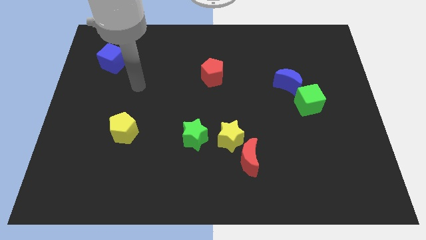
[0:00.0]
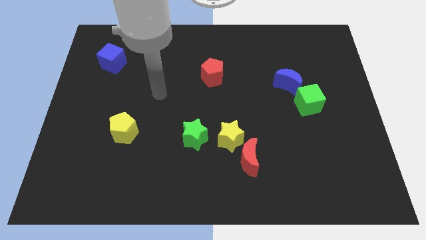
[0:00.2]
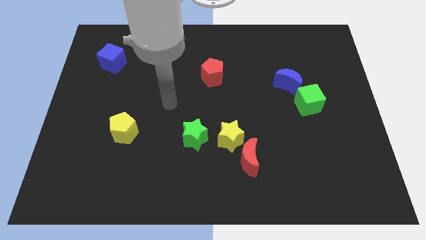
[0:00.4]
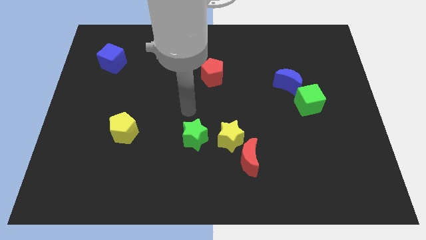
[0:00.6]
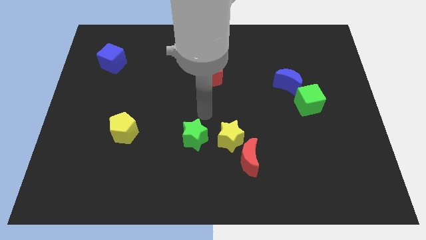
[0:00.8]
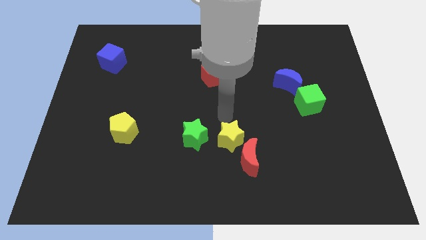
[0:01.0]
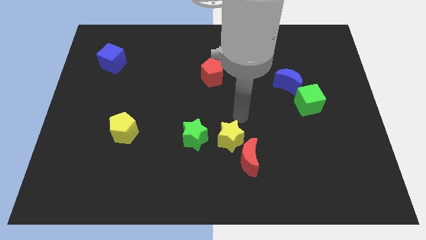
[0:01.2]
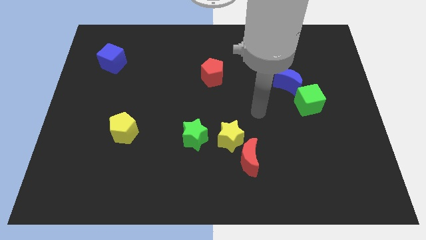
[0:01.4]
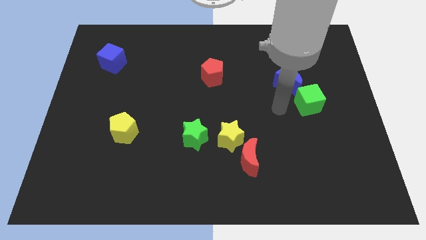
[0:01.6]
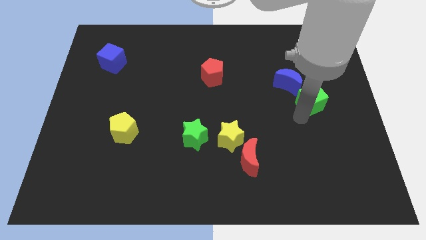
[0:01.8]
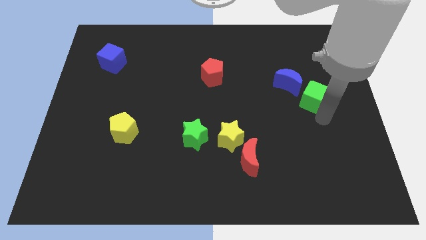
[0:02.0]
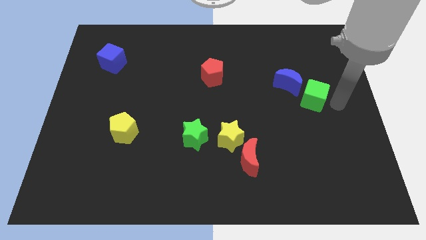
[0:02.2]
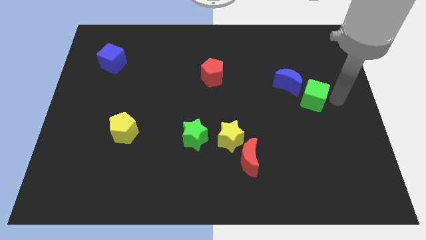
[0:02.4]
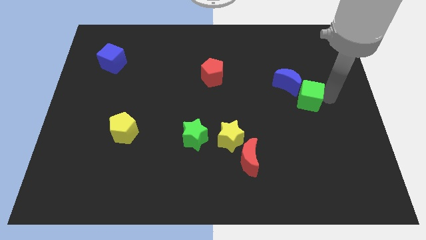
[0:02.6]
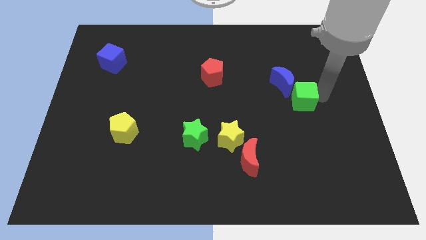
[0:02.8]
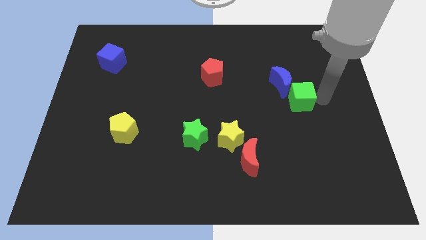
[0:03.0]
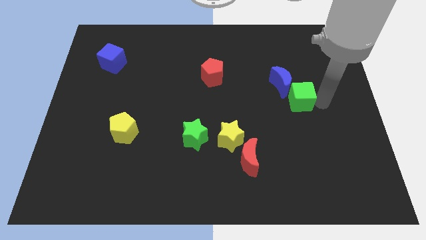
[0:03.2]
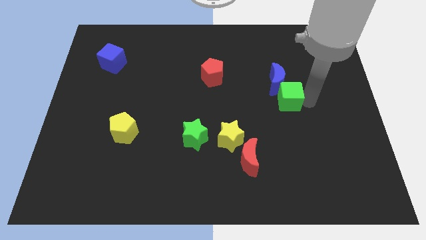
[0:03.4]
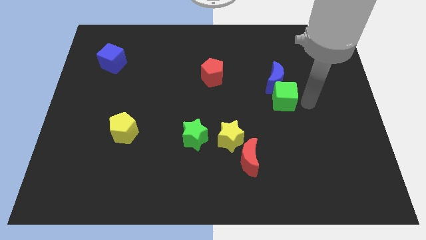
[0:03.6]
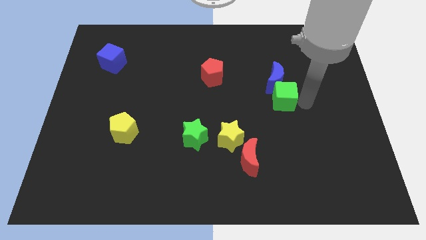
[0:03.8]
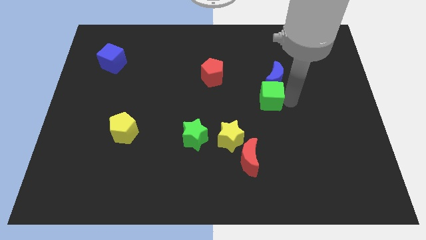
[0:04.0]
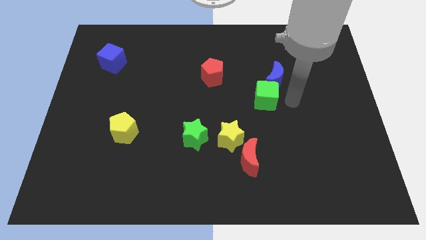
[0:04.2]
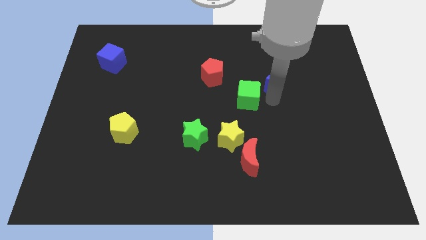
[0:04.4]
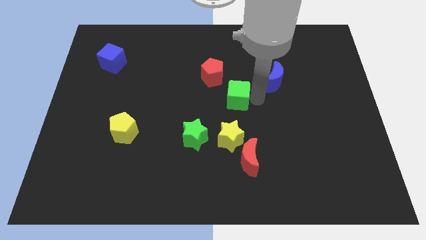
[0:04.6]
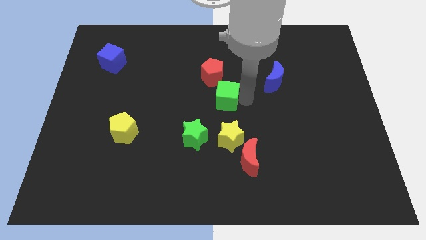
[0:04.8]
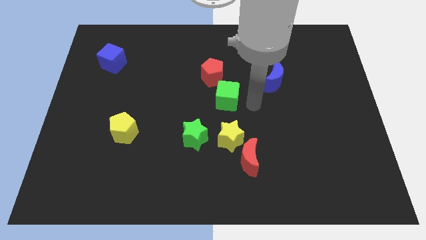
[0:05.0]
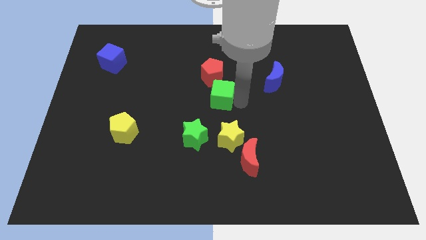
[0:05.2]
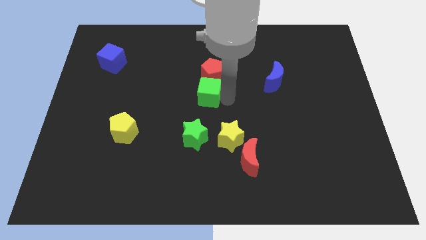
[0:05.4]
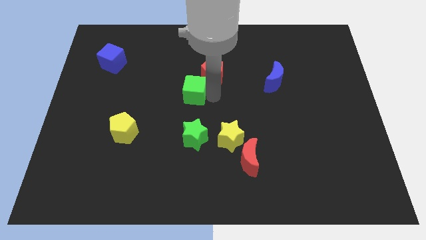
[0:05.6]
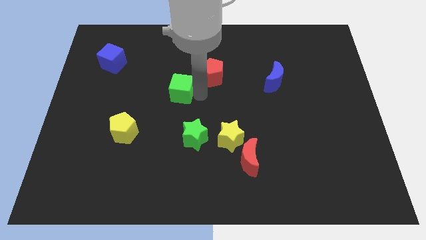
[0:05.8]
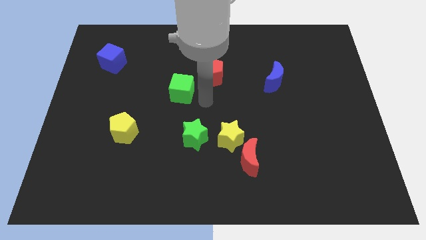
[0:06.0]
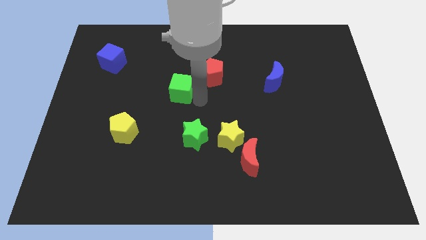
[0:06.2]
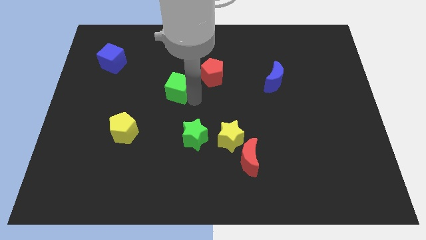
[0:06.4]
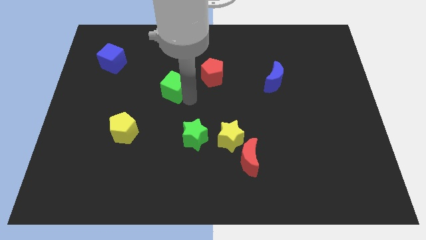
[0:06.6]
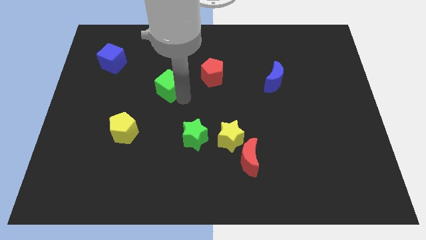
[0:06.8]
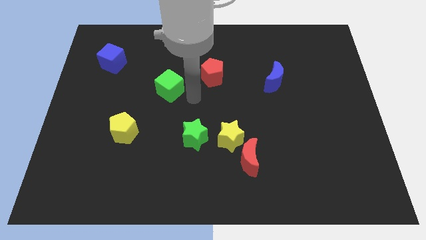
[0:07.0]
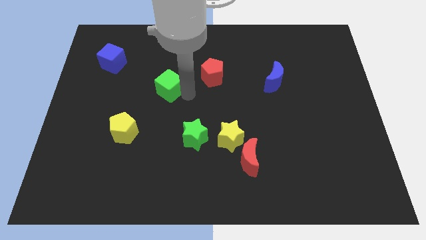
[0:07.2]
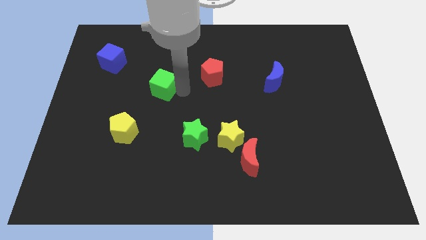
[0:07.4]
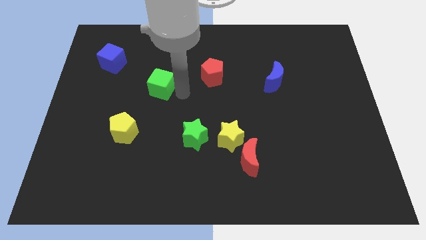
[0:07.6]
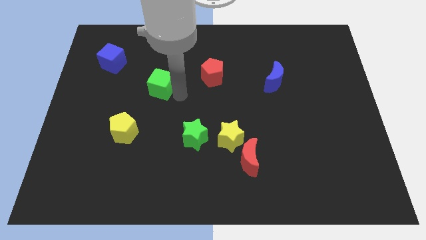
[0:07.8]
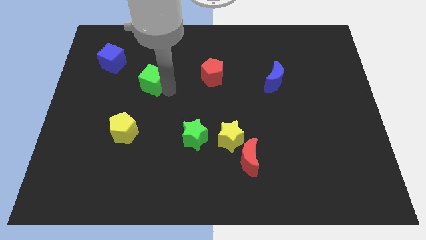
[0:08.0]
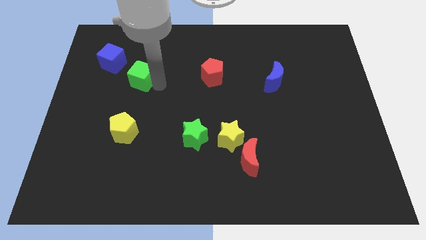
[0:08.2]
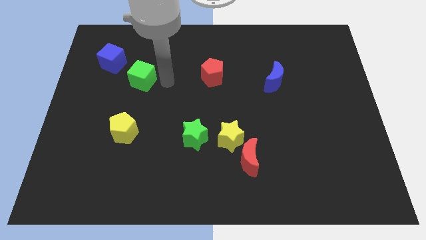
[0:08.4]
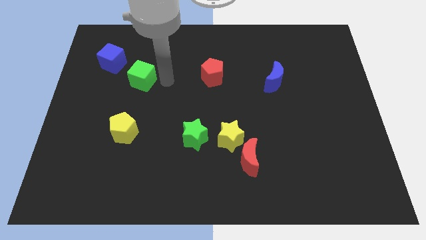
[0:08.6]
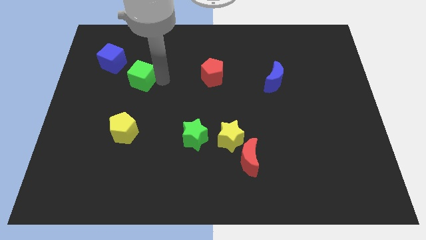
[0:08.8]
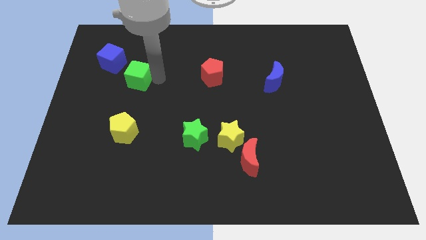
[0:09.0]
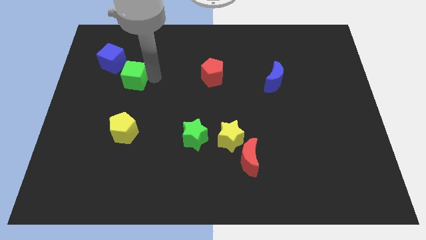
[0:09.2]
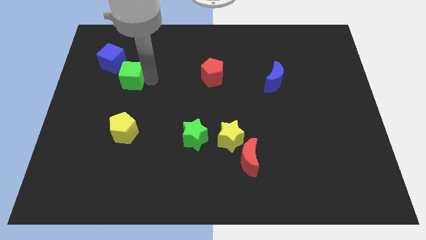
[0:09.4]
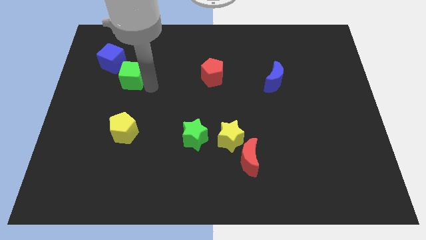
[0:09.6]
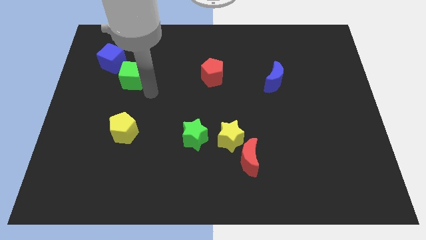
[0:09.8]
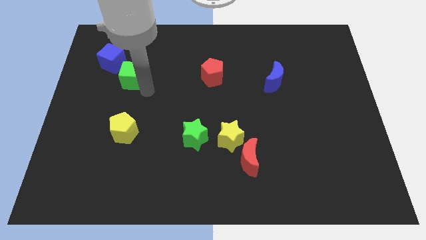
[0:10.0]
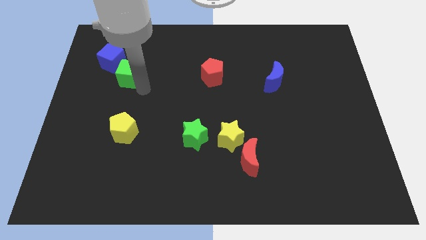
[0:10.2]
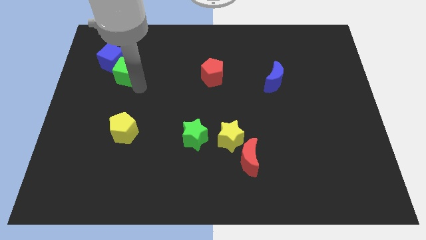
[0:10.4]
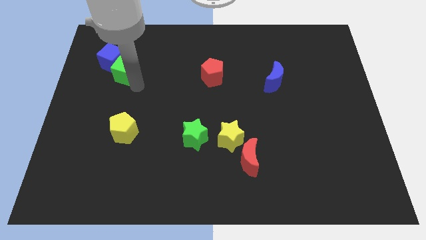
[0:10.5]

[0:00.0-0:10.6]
slide the green cube to the blue cube

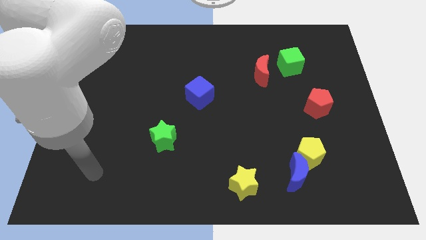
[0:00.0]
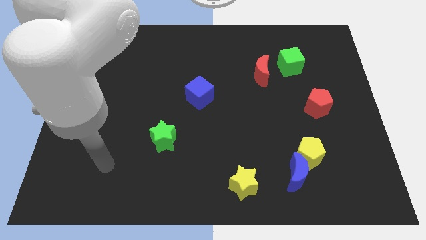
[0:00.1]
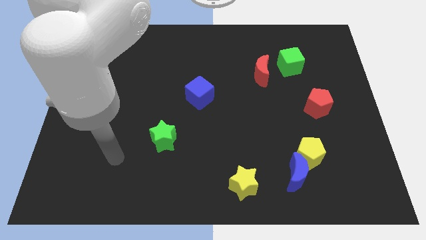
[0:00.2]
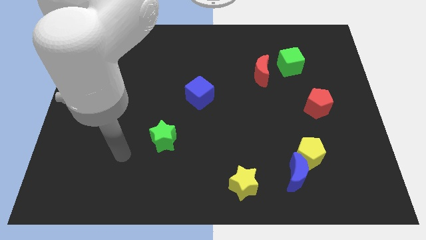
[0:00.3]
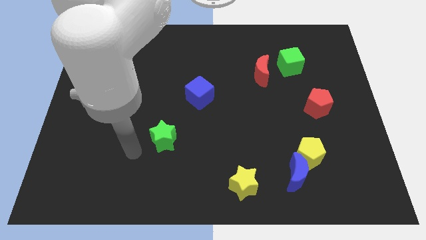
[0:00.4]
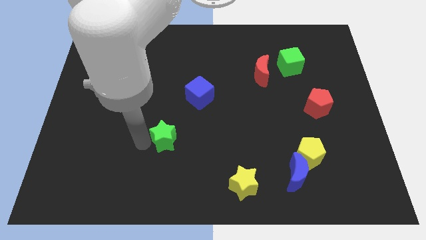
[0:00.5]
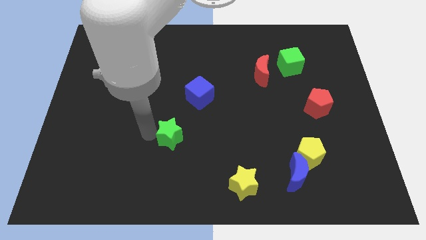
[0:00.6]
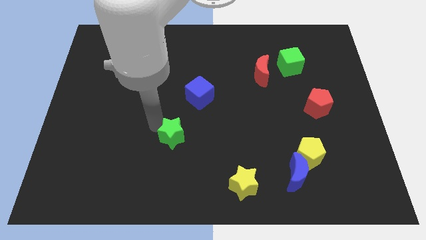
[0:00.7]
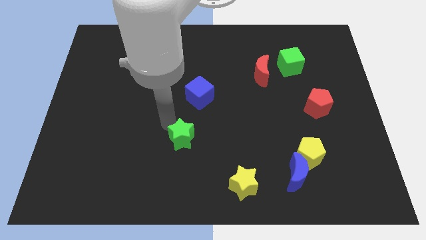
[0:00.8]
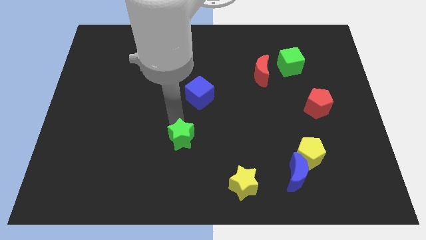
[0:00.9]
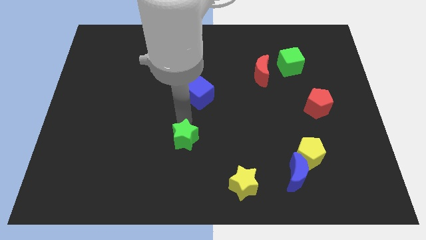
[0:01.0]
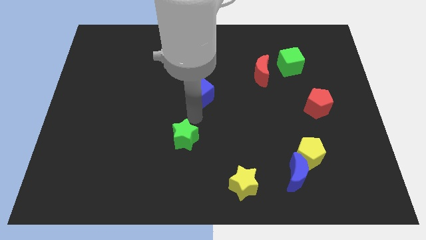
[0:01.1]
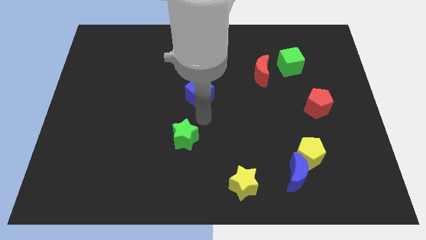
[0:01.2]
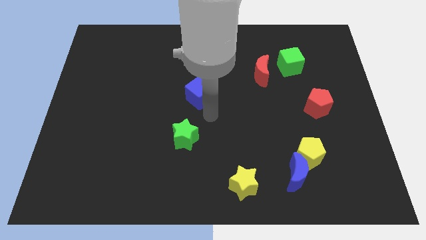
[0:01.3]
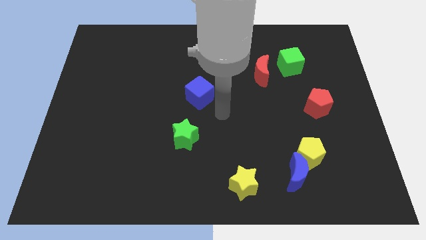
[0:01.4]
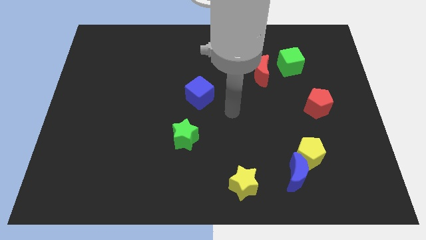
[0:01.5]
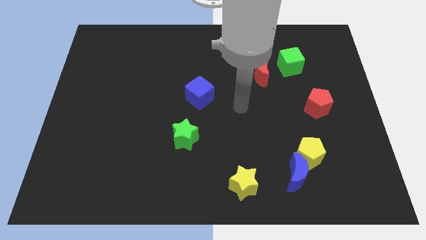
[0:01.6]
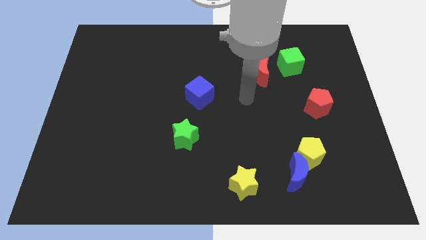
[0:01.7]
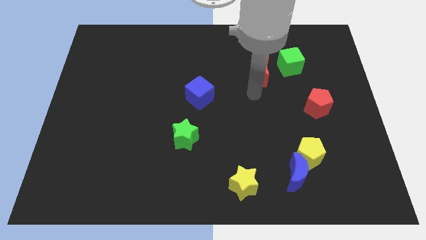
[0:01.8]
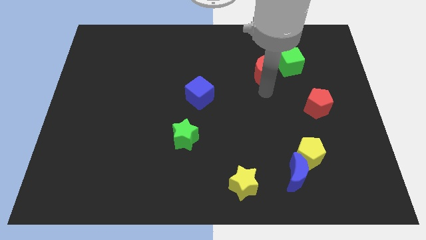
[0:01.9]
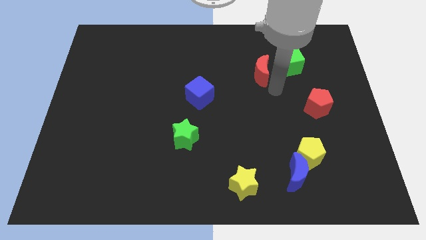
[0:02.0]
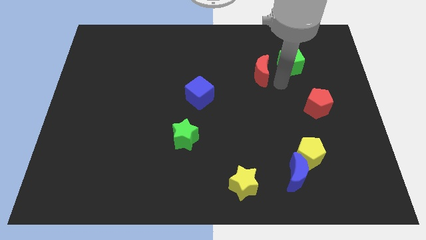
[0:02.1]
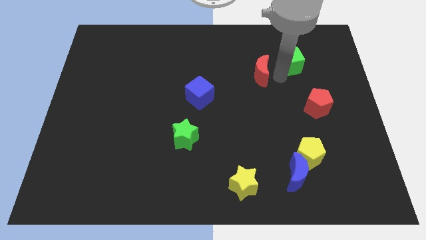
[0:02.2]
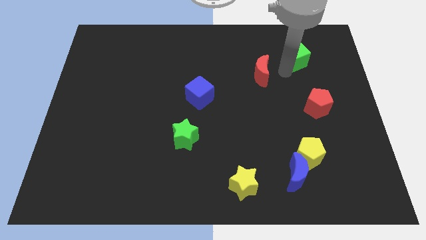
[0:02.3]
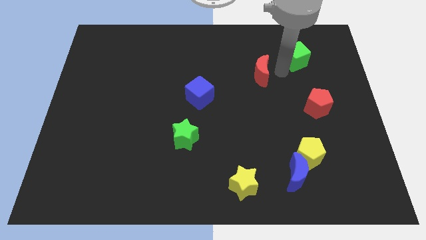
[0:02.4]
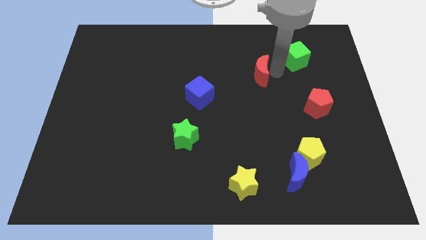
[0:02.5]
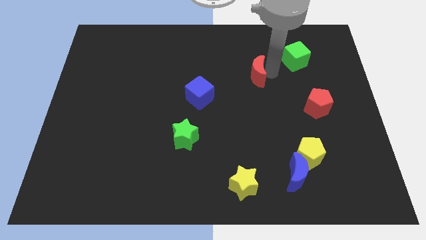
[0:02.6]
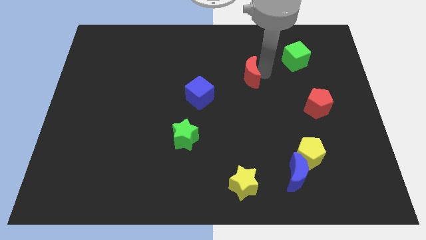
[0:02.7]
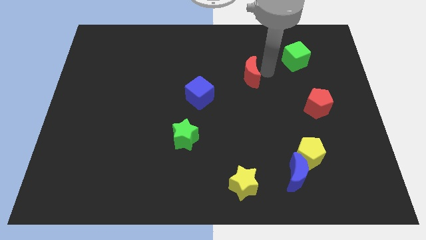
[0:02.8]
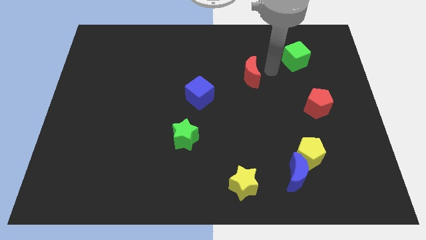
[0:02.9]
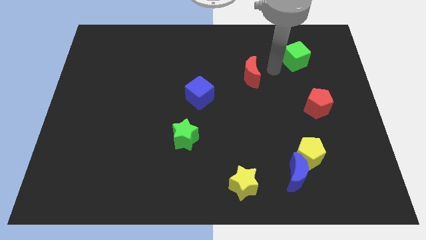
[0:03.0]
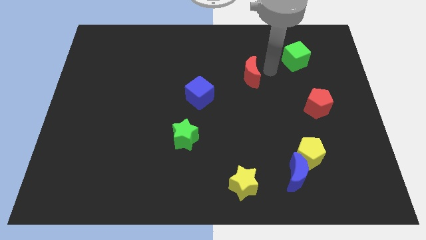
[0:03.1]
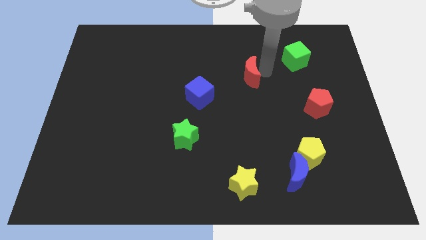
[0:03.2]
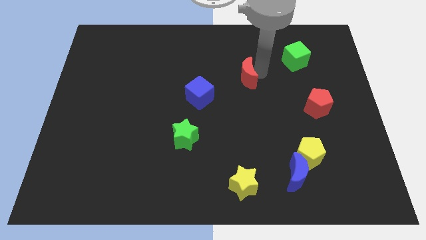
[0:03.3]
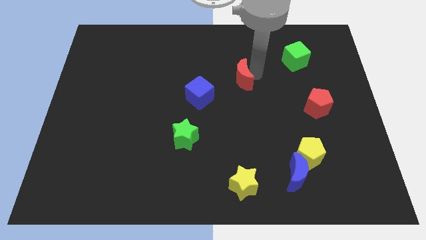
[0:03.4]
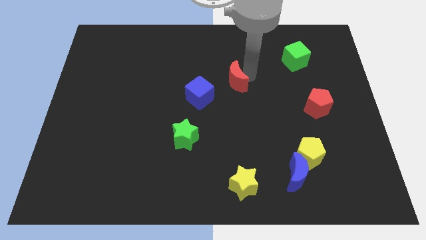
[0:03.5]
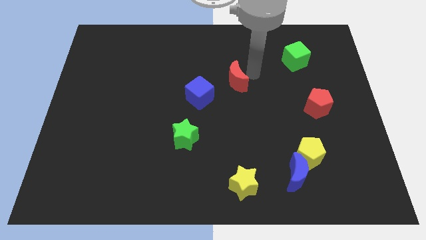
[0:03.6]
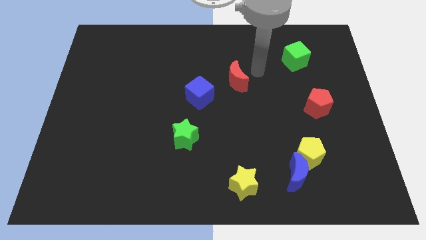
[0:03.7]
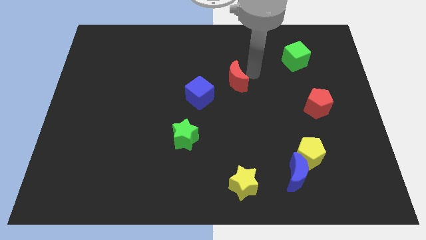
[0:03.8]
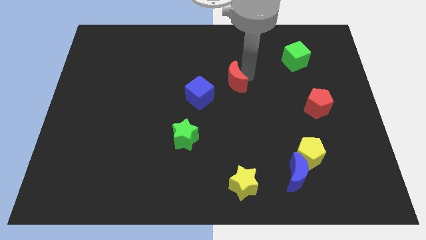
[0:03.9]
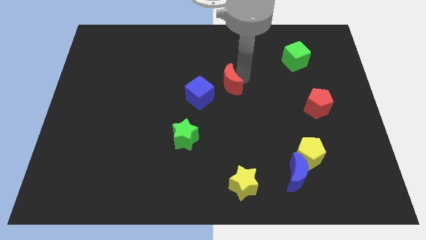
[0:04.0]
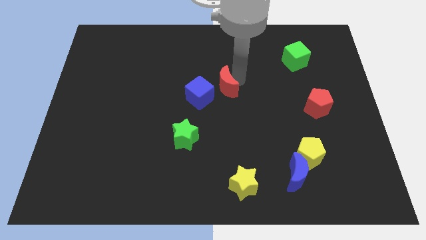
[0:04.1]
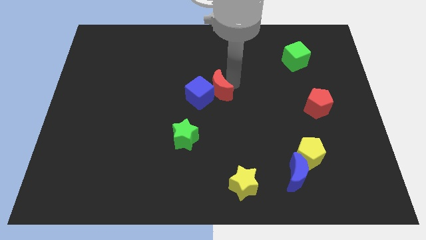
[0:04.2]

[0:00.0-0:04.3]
move the red moon to the blue cube
